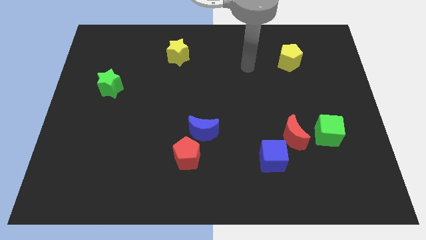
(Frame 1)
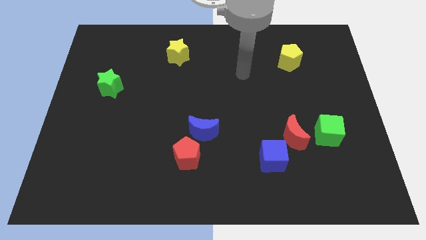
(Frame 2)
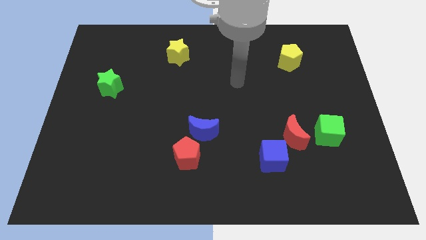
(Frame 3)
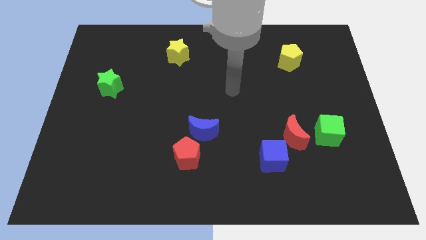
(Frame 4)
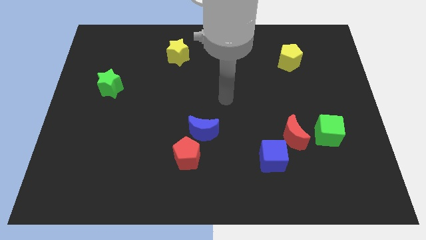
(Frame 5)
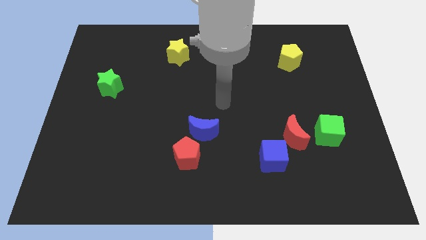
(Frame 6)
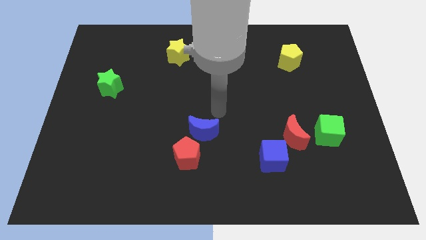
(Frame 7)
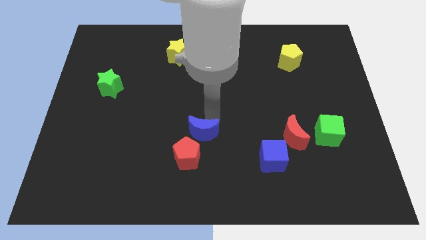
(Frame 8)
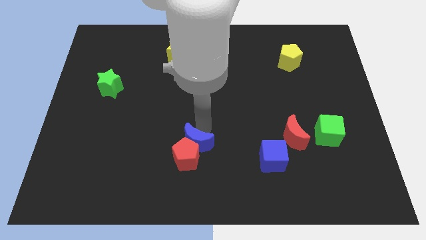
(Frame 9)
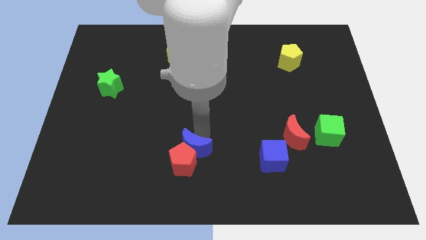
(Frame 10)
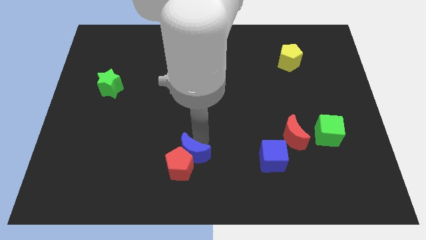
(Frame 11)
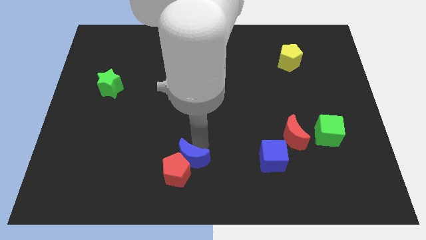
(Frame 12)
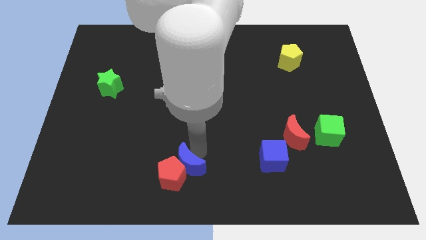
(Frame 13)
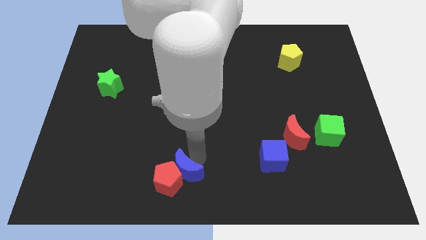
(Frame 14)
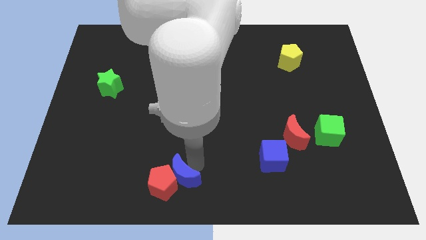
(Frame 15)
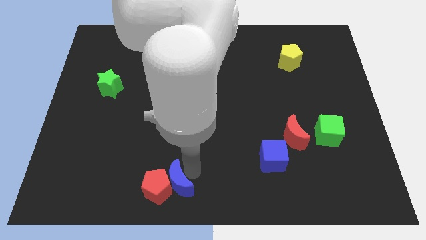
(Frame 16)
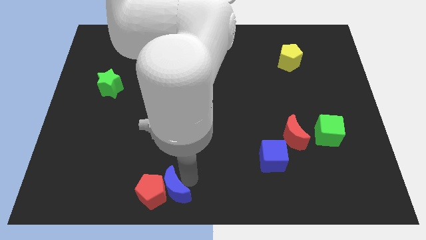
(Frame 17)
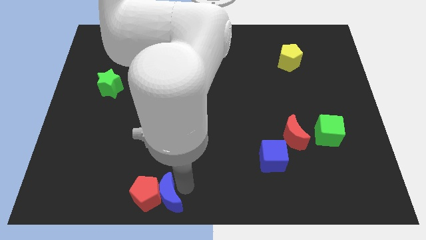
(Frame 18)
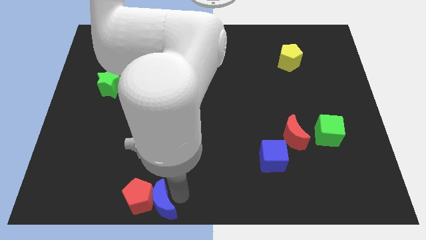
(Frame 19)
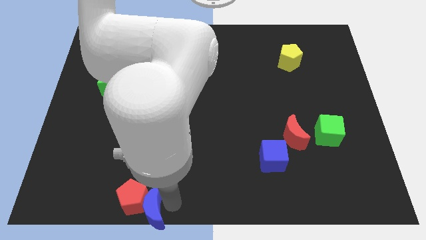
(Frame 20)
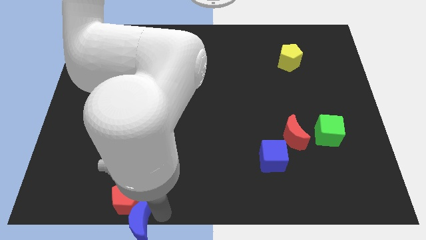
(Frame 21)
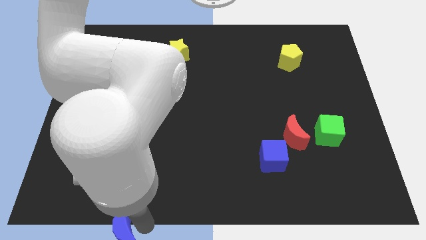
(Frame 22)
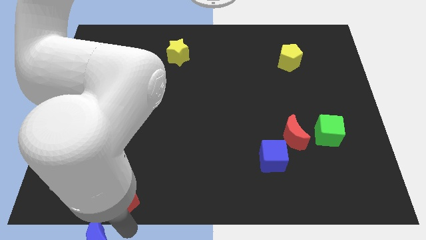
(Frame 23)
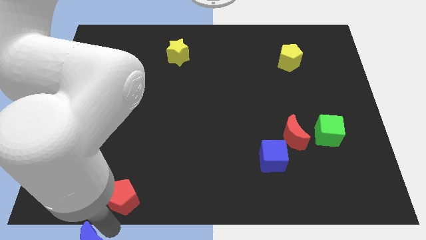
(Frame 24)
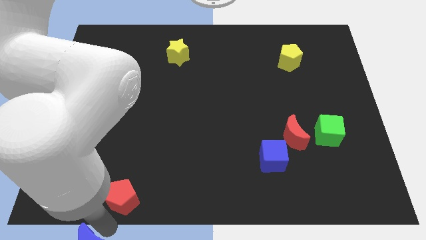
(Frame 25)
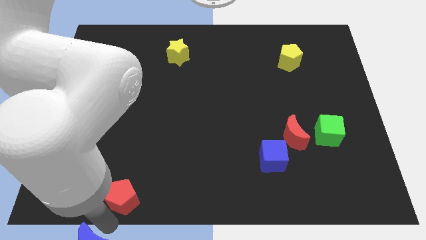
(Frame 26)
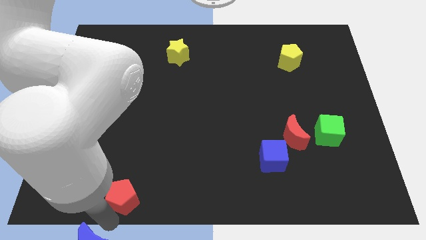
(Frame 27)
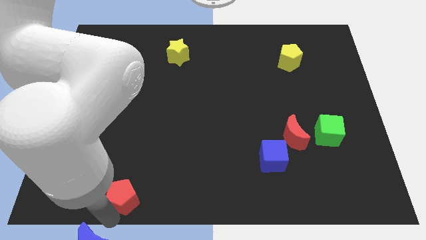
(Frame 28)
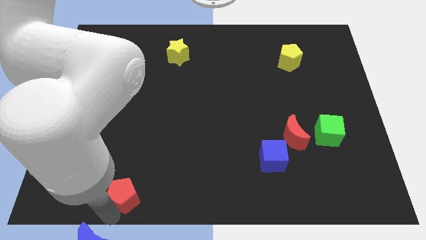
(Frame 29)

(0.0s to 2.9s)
separate the red pentagon from the blue moon

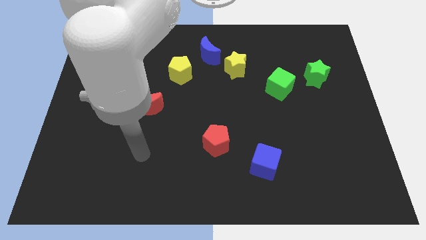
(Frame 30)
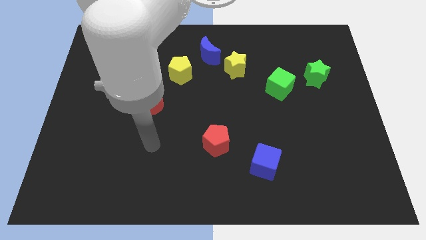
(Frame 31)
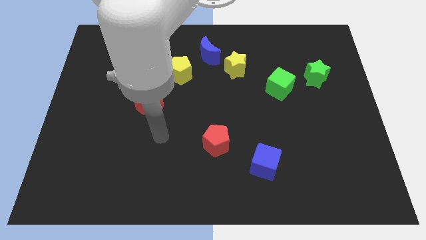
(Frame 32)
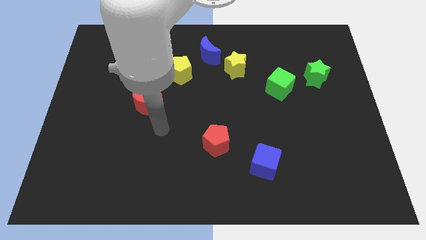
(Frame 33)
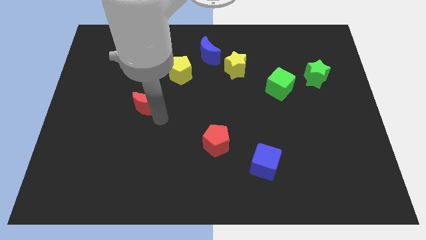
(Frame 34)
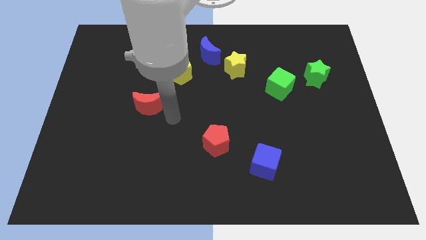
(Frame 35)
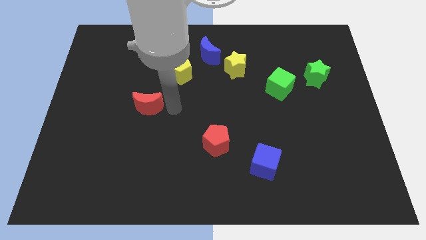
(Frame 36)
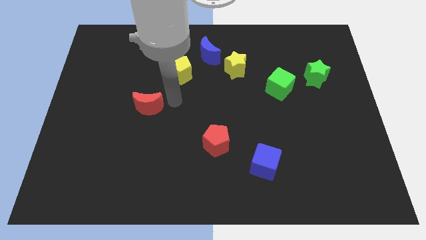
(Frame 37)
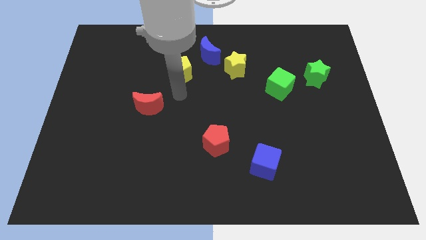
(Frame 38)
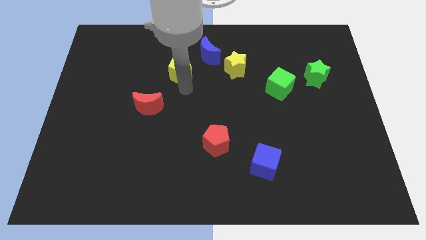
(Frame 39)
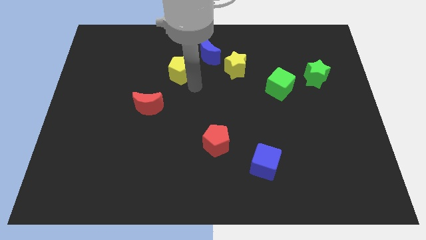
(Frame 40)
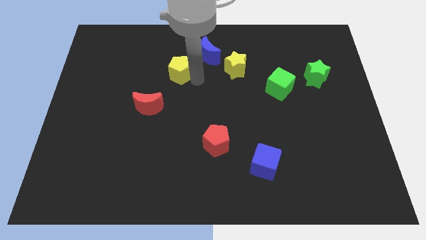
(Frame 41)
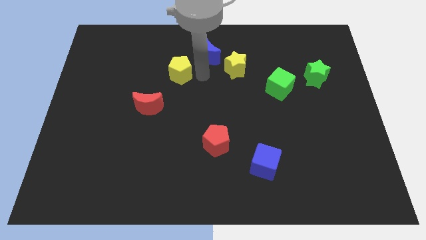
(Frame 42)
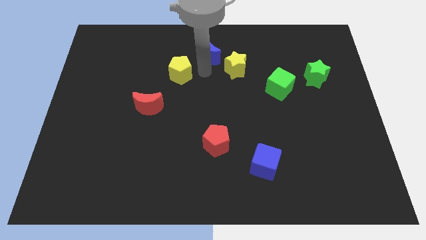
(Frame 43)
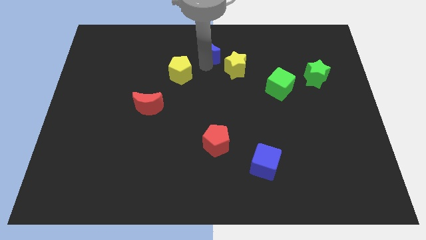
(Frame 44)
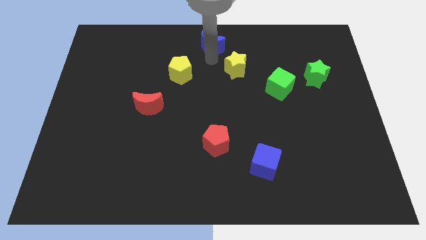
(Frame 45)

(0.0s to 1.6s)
pull the yellow star apart from the blue moon

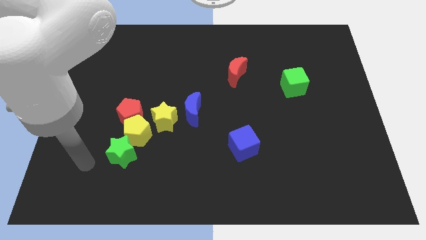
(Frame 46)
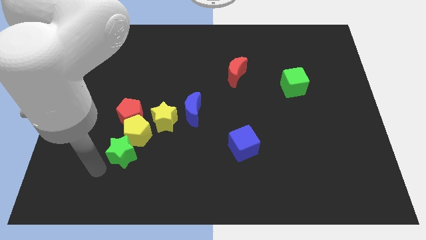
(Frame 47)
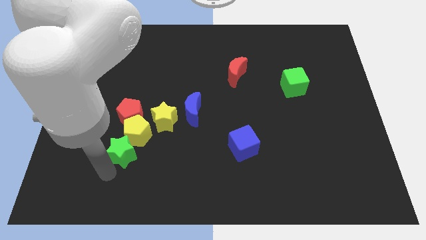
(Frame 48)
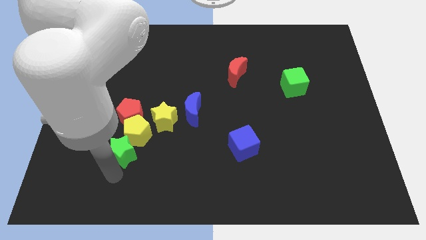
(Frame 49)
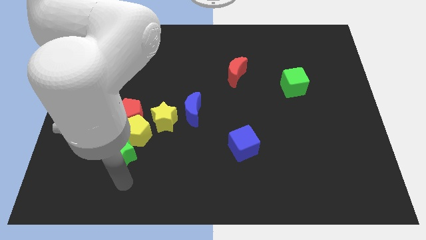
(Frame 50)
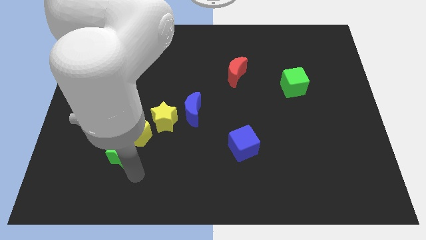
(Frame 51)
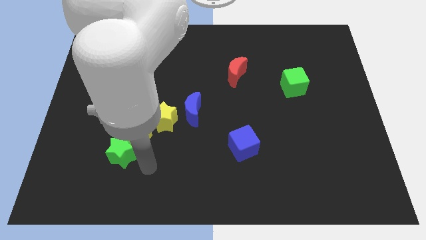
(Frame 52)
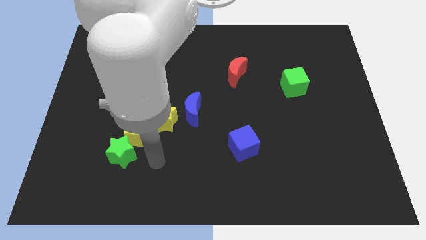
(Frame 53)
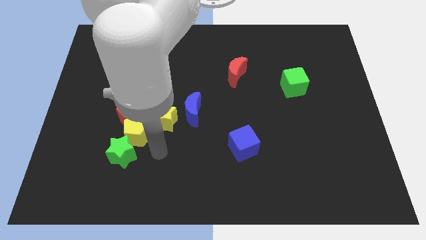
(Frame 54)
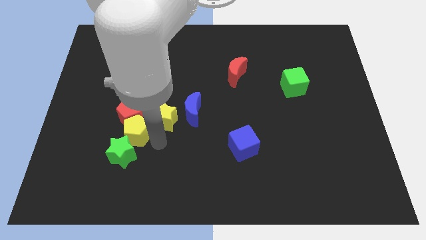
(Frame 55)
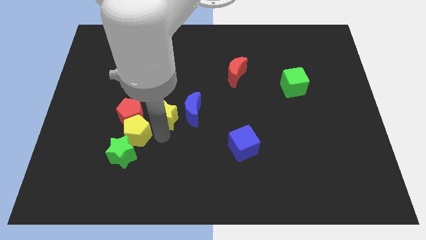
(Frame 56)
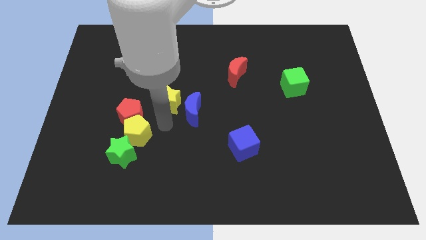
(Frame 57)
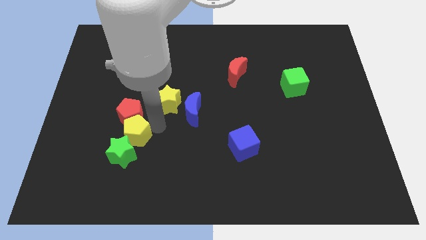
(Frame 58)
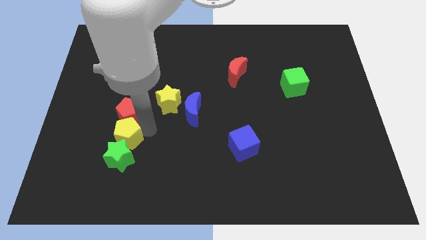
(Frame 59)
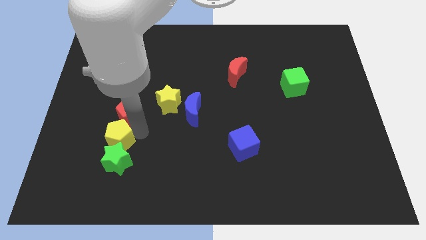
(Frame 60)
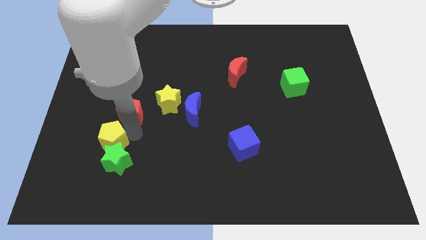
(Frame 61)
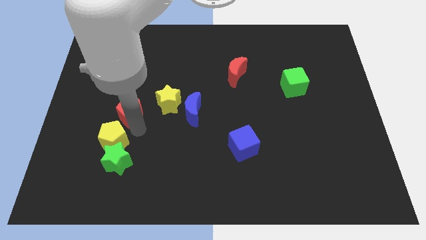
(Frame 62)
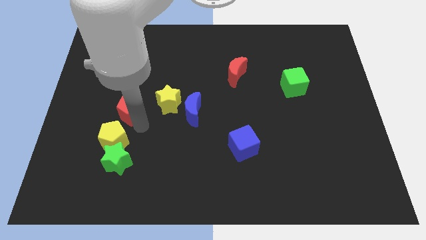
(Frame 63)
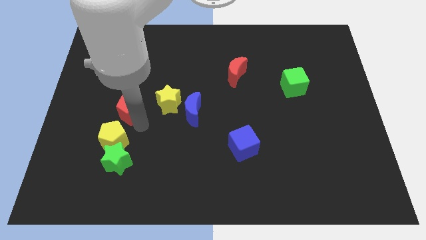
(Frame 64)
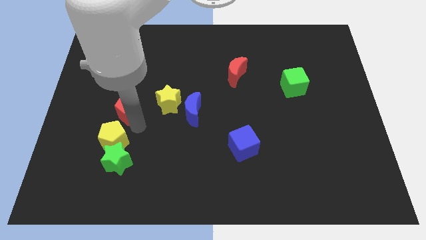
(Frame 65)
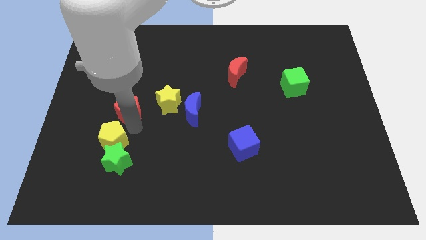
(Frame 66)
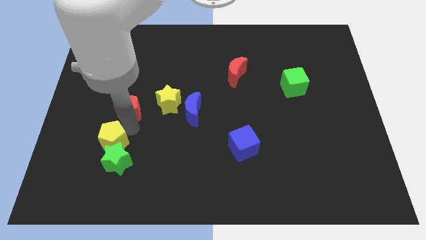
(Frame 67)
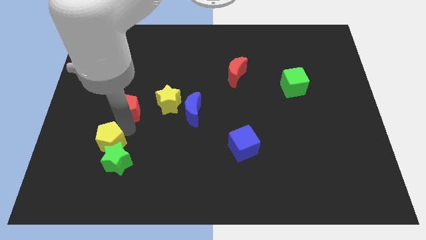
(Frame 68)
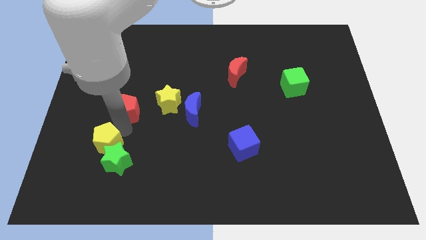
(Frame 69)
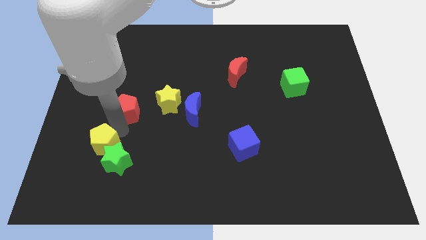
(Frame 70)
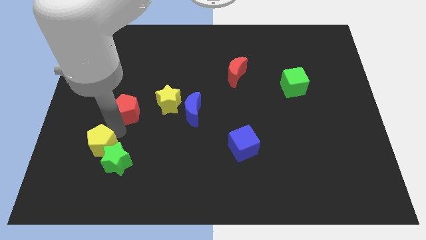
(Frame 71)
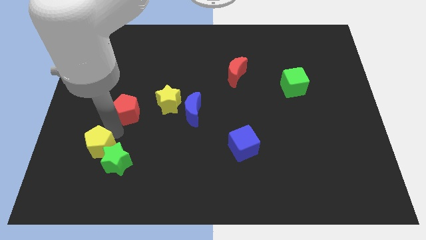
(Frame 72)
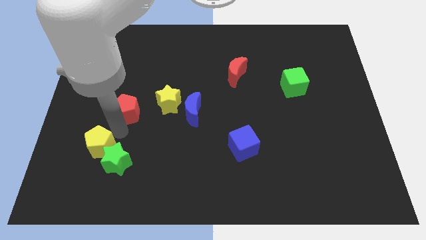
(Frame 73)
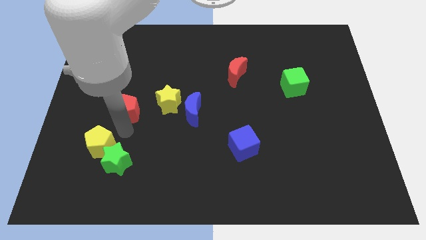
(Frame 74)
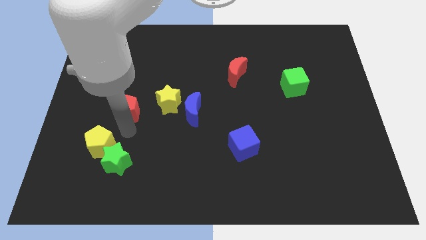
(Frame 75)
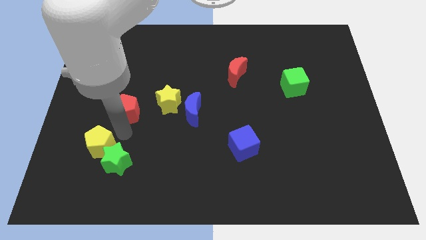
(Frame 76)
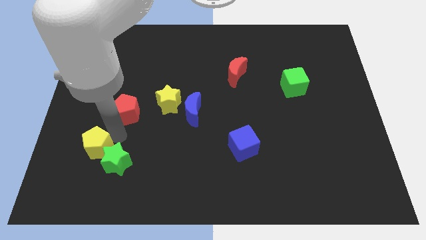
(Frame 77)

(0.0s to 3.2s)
separate the yellow pentagon from the clump

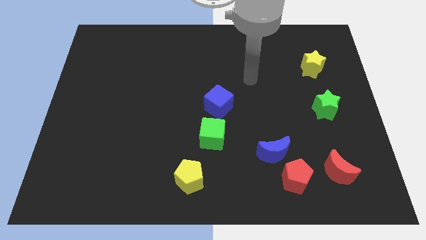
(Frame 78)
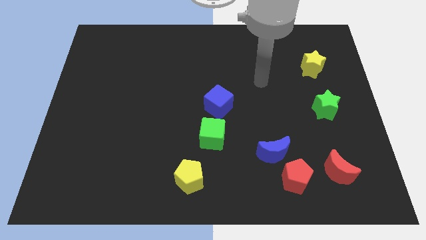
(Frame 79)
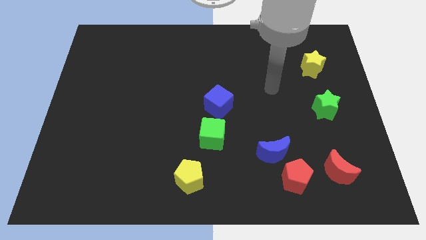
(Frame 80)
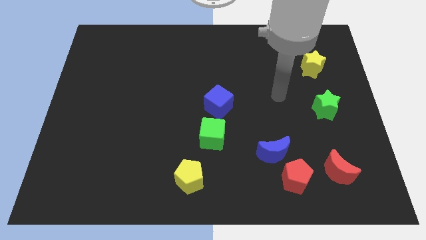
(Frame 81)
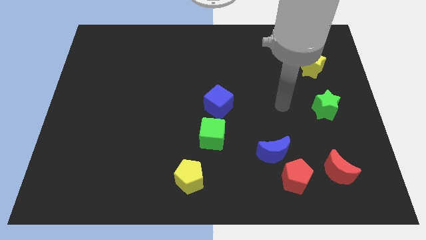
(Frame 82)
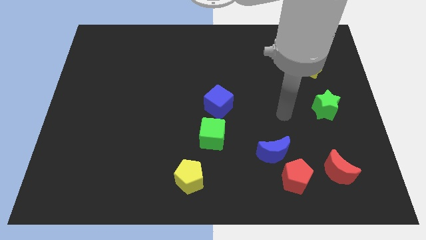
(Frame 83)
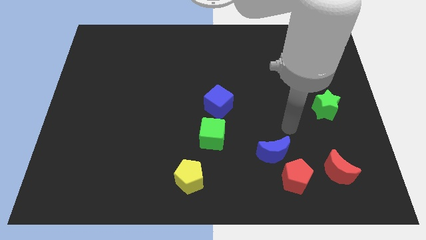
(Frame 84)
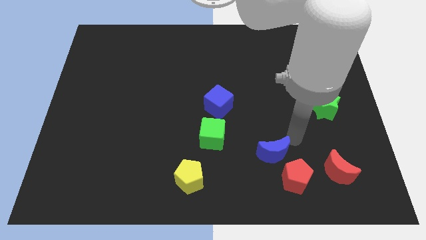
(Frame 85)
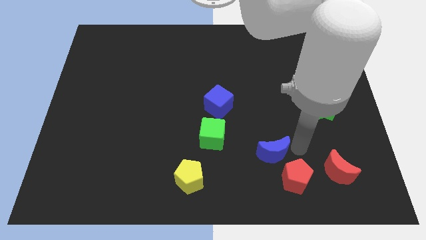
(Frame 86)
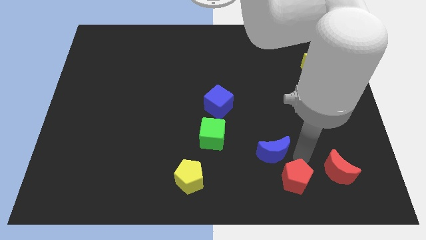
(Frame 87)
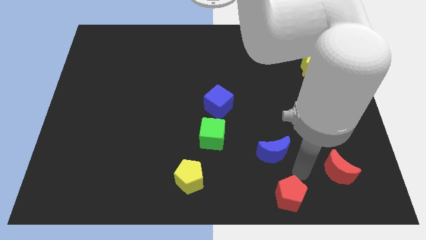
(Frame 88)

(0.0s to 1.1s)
separate the blue moon from the red pentagon

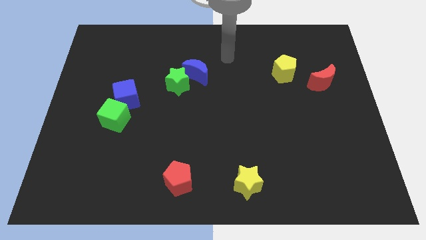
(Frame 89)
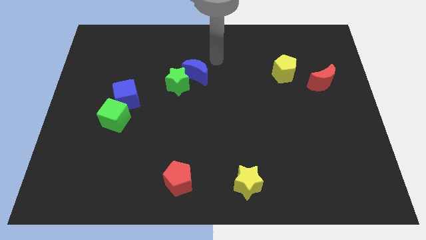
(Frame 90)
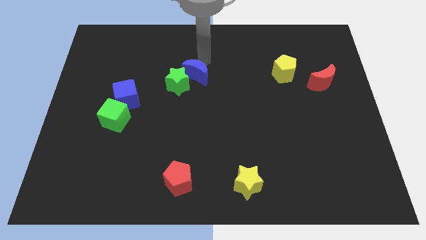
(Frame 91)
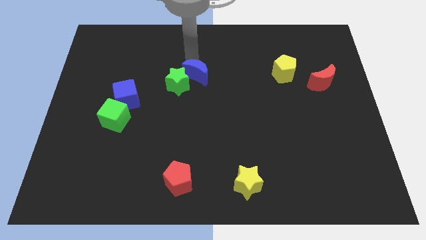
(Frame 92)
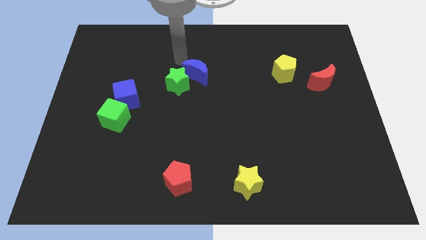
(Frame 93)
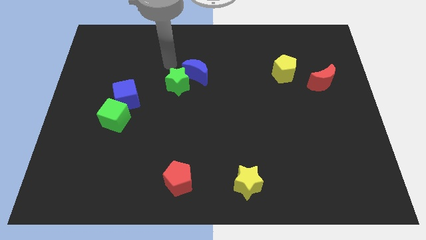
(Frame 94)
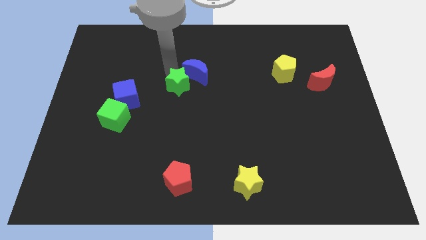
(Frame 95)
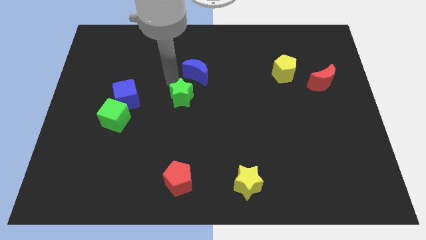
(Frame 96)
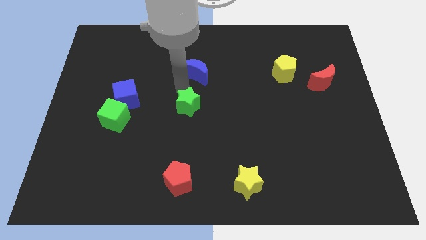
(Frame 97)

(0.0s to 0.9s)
move the blue moon away from the green star
